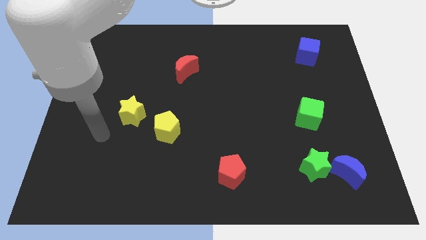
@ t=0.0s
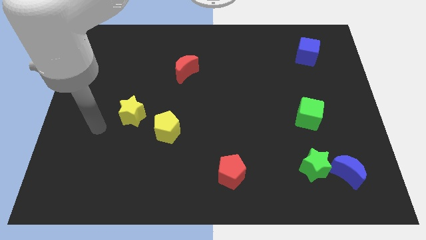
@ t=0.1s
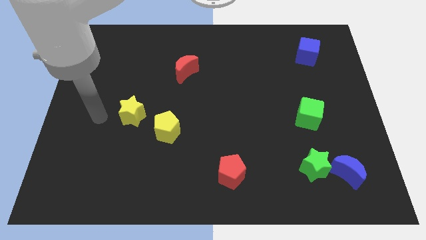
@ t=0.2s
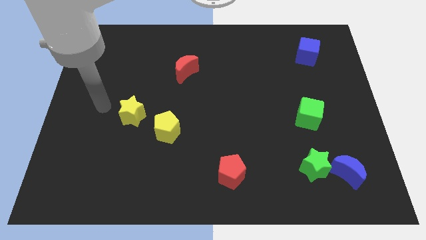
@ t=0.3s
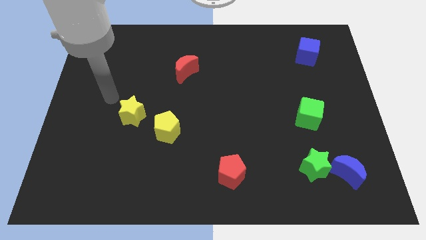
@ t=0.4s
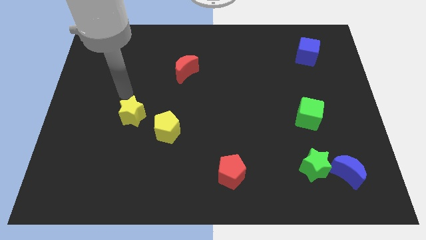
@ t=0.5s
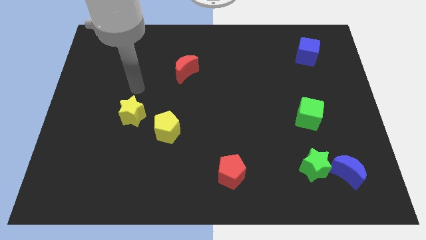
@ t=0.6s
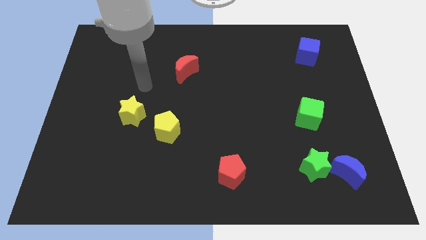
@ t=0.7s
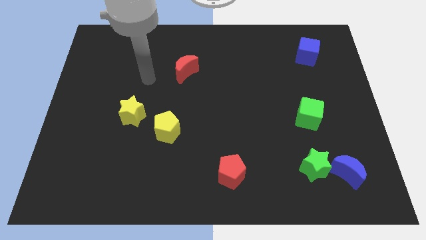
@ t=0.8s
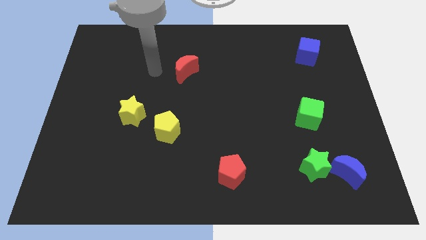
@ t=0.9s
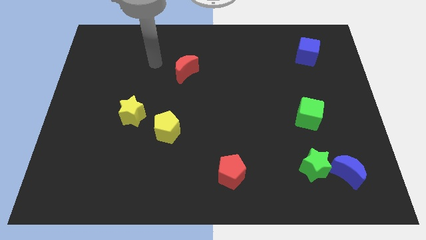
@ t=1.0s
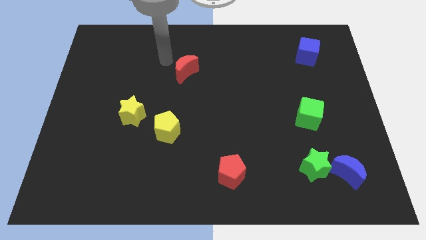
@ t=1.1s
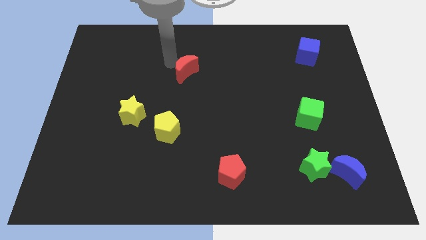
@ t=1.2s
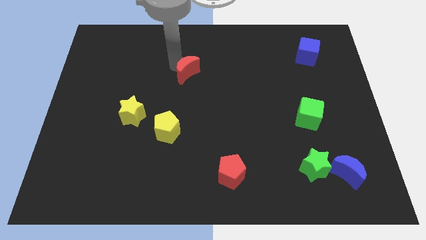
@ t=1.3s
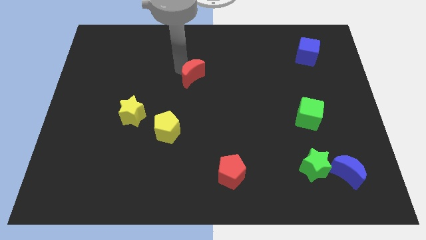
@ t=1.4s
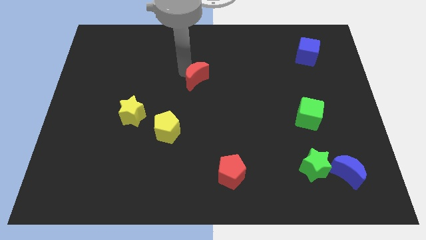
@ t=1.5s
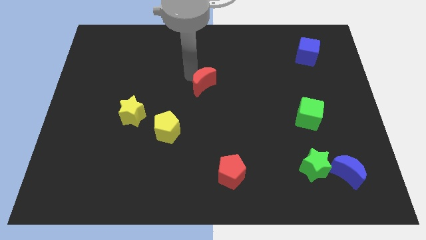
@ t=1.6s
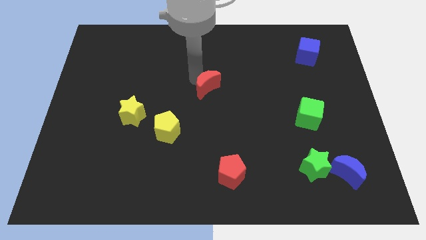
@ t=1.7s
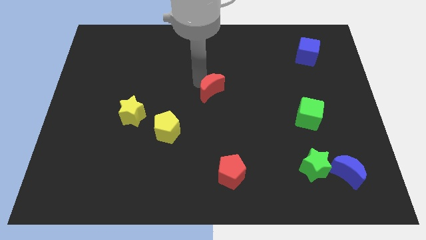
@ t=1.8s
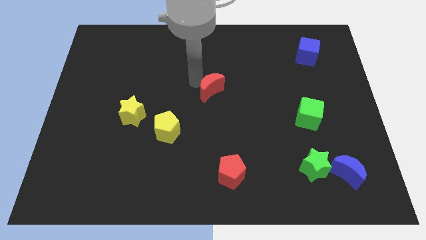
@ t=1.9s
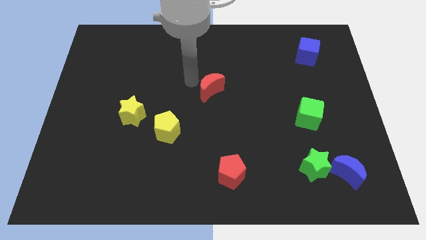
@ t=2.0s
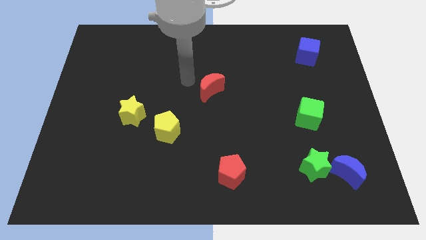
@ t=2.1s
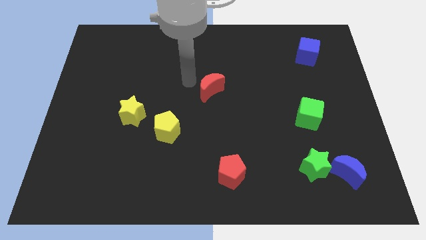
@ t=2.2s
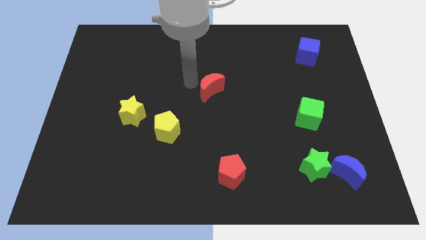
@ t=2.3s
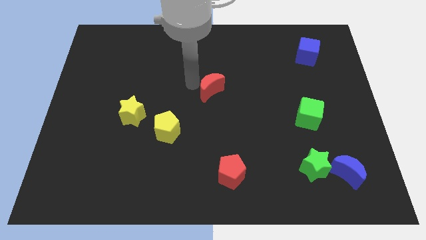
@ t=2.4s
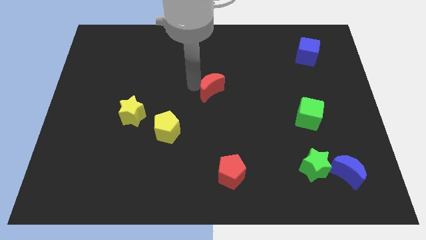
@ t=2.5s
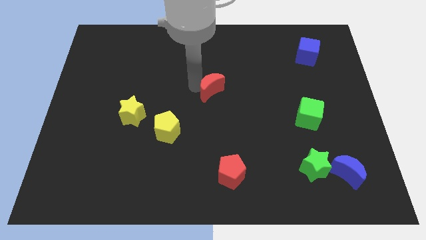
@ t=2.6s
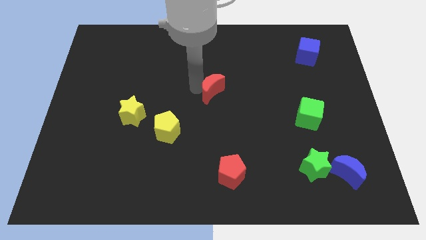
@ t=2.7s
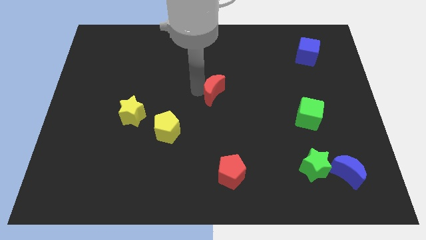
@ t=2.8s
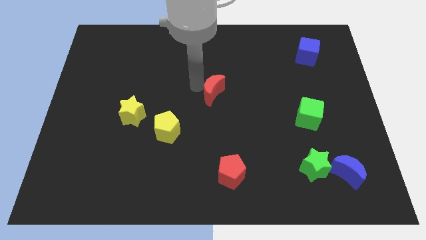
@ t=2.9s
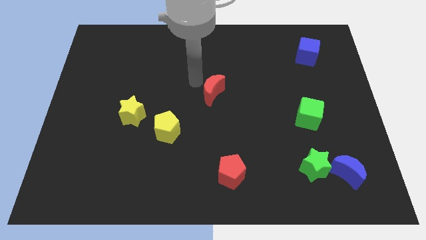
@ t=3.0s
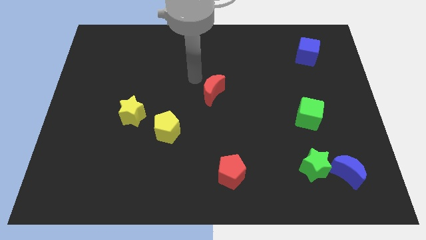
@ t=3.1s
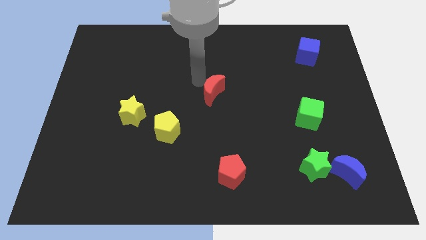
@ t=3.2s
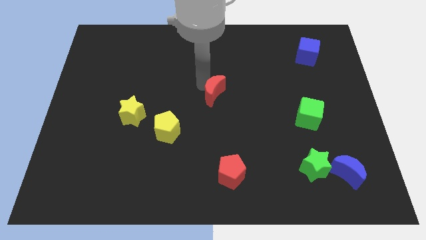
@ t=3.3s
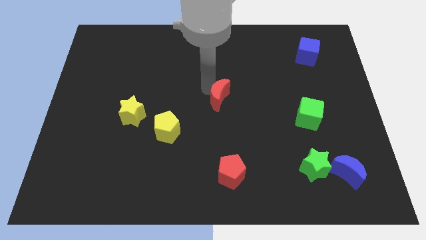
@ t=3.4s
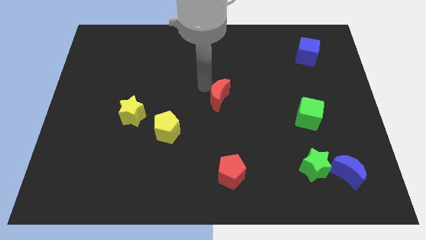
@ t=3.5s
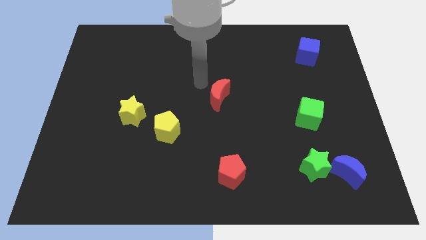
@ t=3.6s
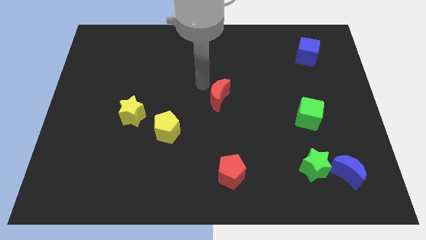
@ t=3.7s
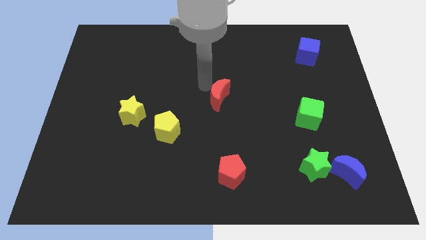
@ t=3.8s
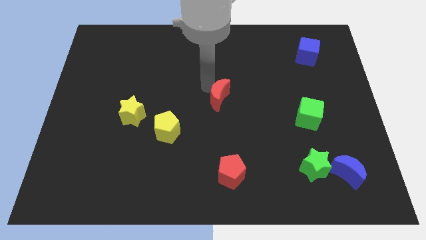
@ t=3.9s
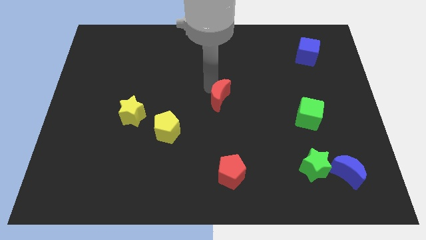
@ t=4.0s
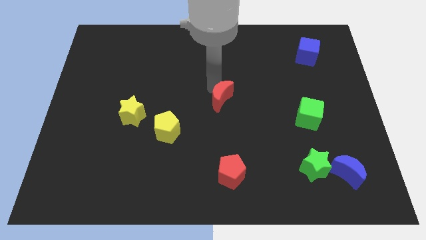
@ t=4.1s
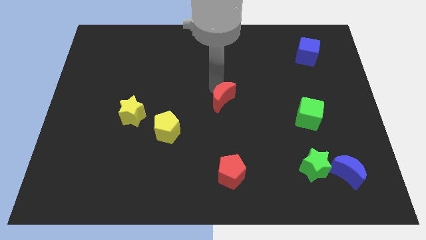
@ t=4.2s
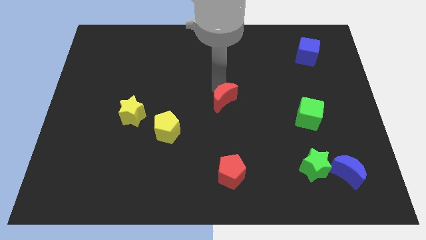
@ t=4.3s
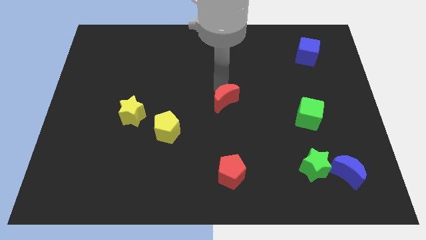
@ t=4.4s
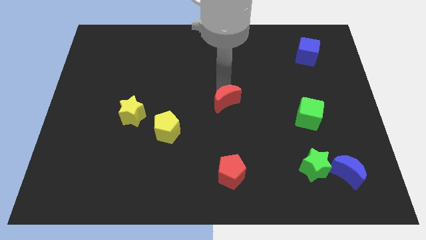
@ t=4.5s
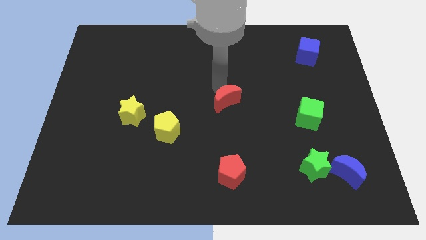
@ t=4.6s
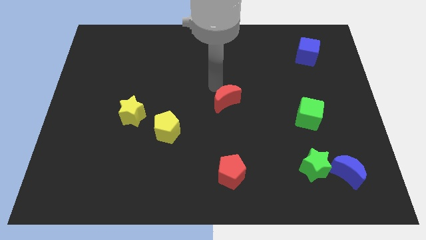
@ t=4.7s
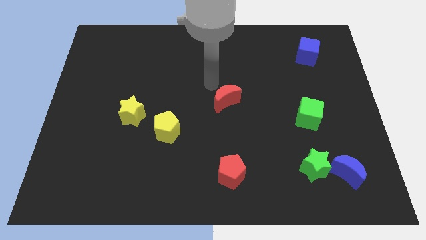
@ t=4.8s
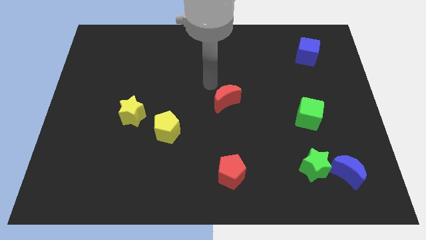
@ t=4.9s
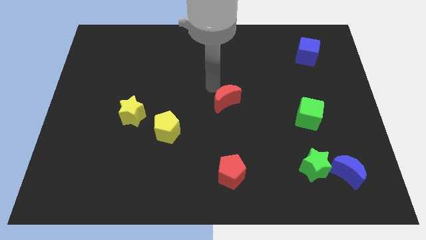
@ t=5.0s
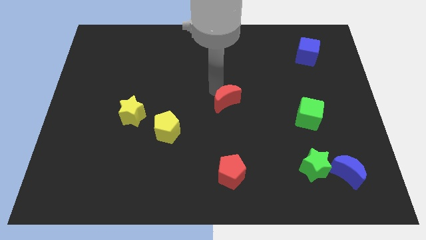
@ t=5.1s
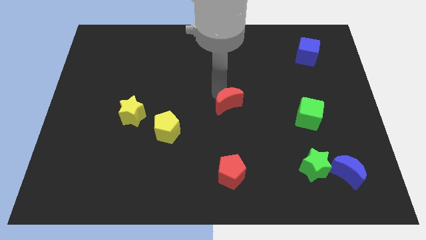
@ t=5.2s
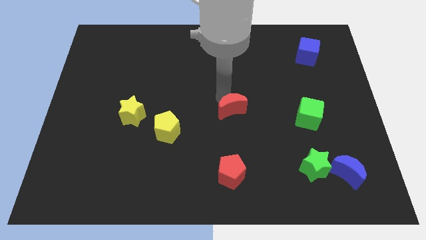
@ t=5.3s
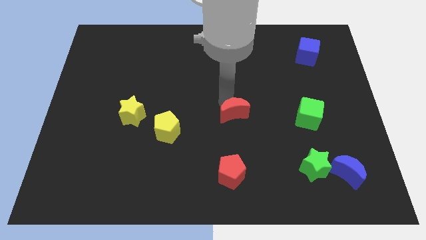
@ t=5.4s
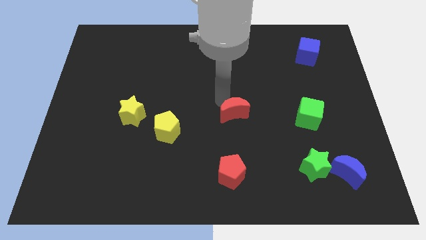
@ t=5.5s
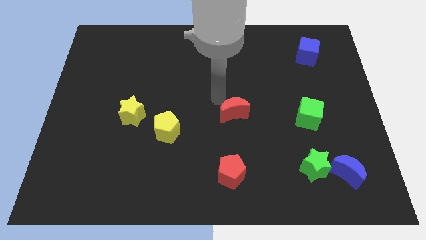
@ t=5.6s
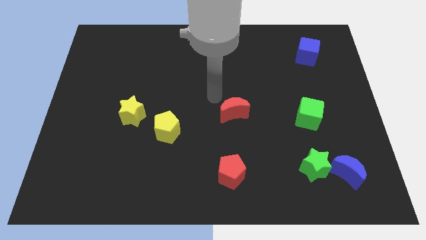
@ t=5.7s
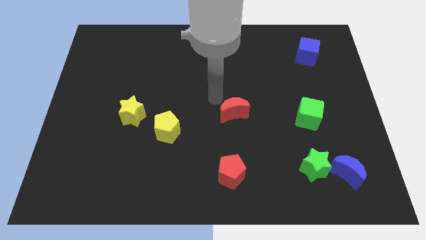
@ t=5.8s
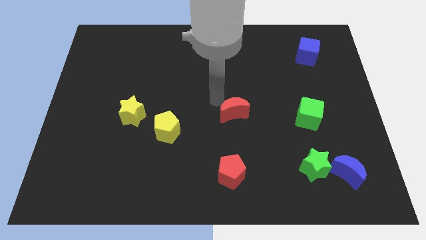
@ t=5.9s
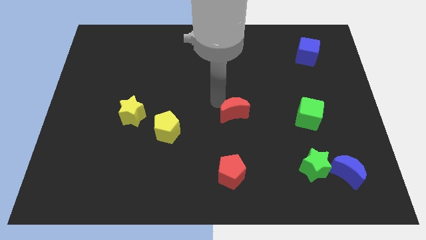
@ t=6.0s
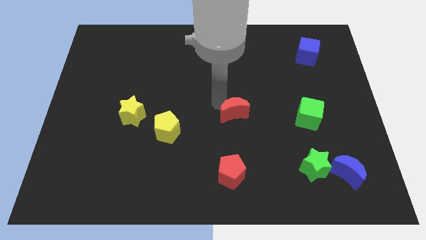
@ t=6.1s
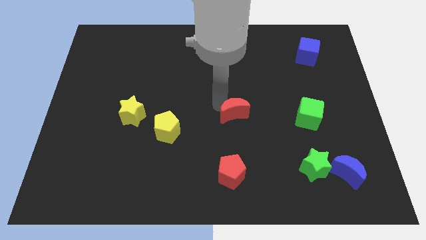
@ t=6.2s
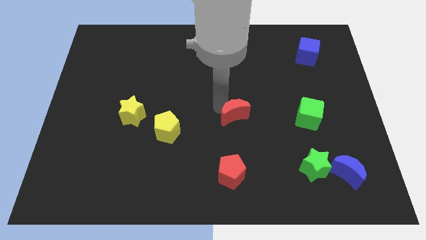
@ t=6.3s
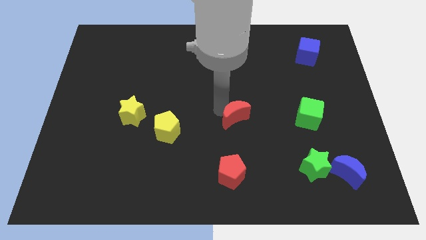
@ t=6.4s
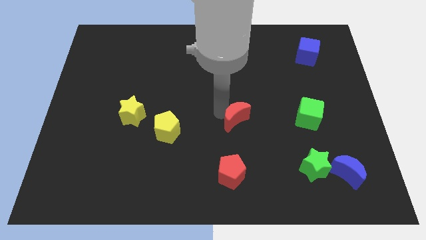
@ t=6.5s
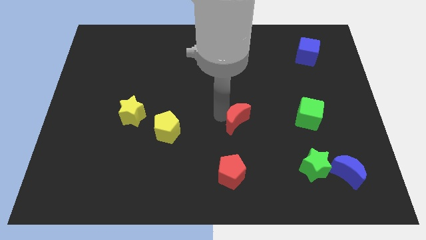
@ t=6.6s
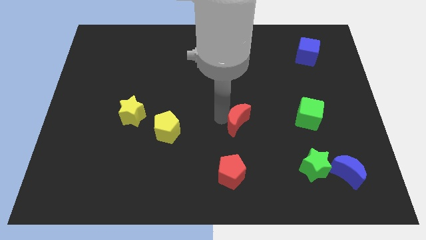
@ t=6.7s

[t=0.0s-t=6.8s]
push the red moon downwards and right diagonally

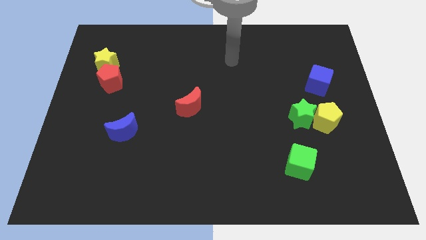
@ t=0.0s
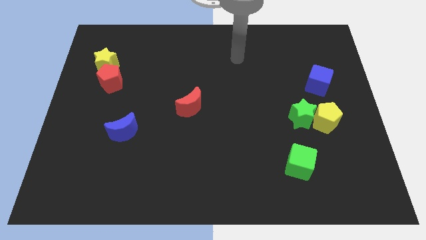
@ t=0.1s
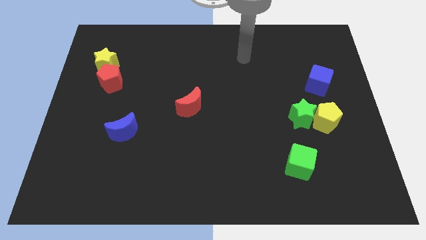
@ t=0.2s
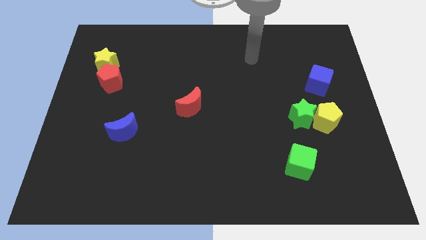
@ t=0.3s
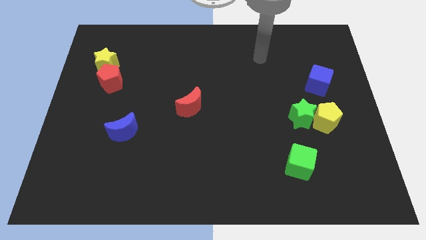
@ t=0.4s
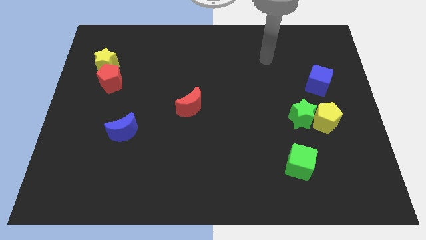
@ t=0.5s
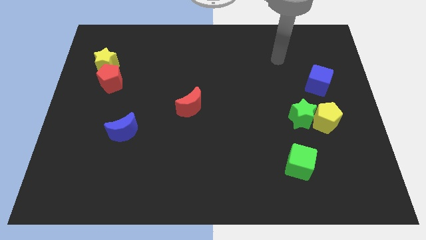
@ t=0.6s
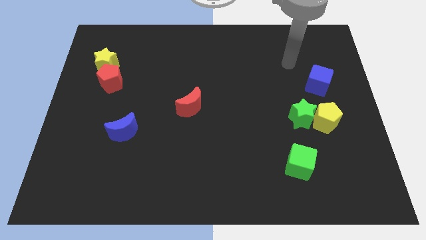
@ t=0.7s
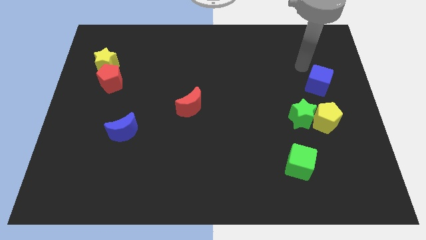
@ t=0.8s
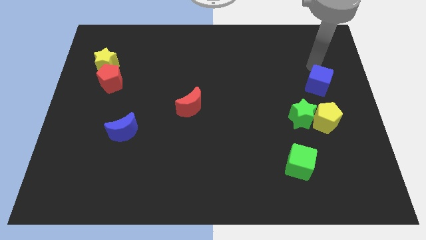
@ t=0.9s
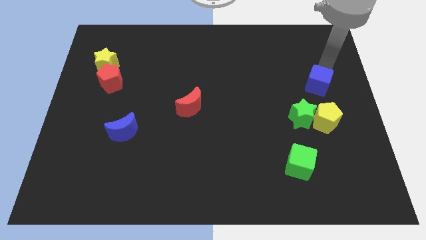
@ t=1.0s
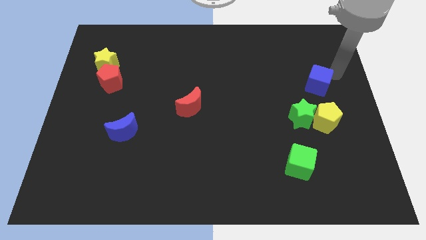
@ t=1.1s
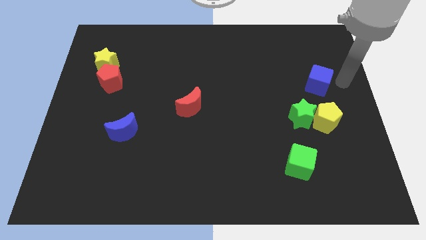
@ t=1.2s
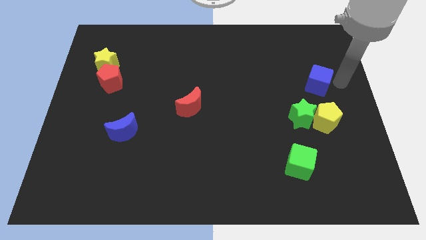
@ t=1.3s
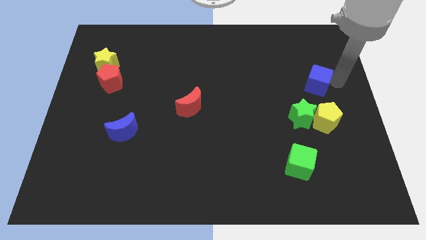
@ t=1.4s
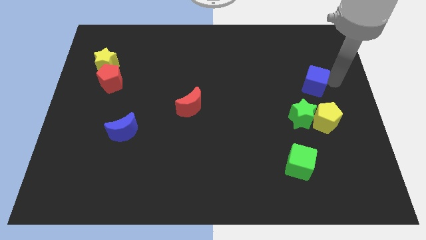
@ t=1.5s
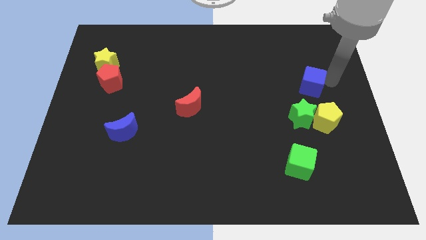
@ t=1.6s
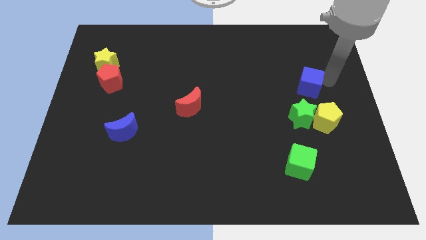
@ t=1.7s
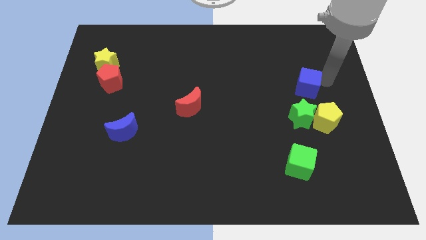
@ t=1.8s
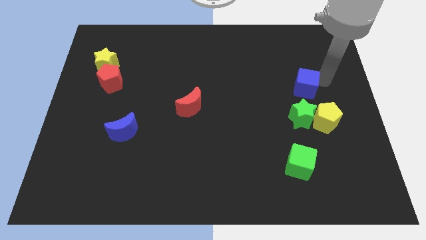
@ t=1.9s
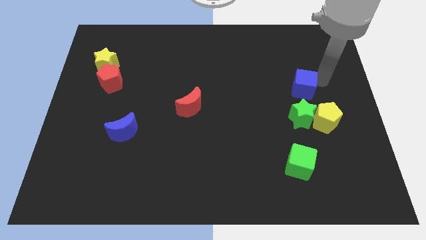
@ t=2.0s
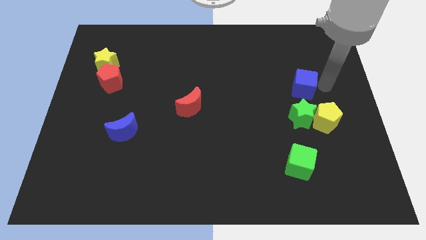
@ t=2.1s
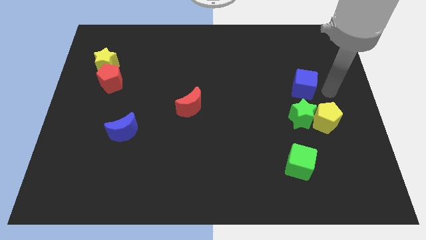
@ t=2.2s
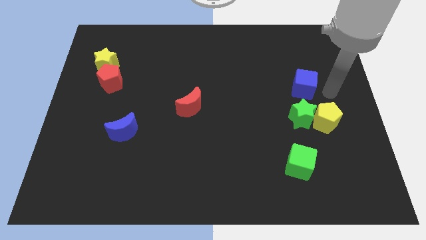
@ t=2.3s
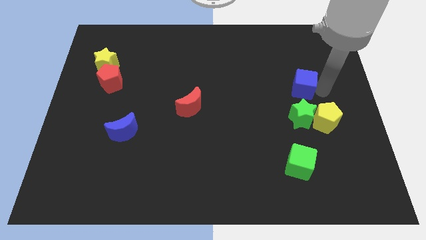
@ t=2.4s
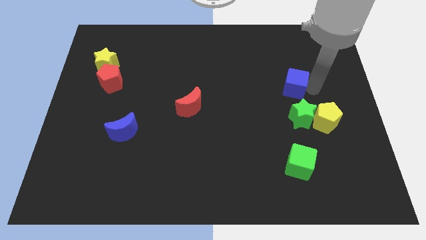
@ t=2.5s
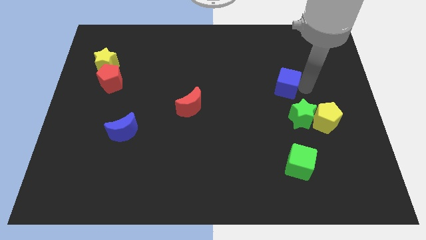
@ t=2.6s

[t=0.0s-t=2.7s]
slightly push the blue cube left
